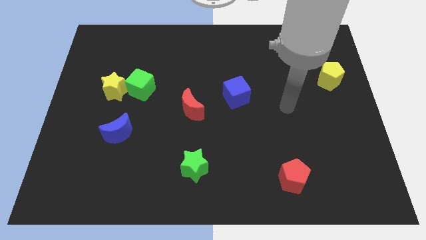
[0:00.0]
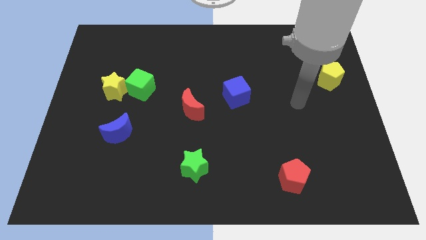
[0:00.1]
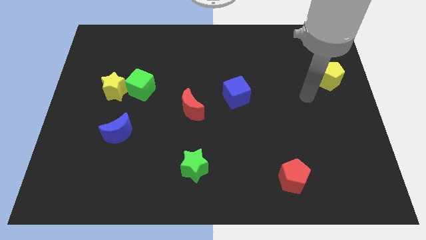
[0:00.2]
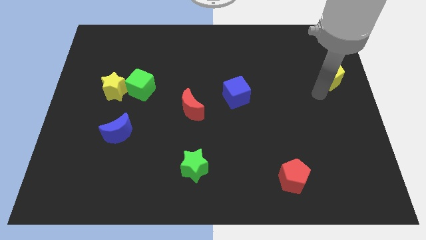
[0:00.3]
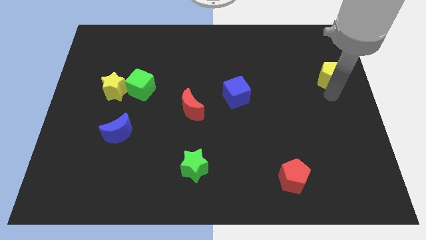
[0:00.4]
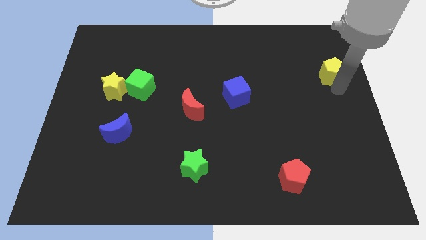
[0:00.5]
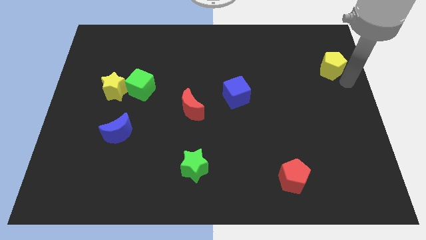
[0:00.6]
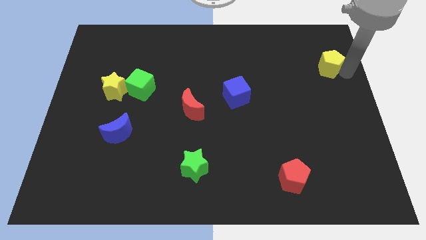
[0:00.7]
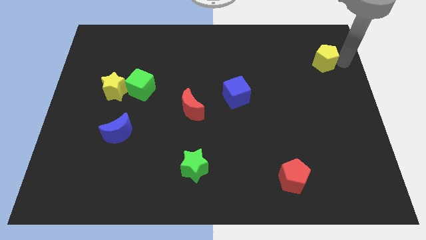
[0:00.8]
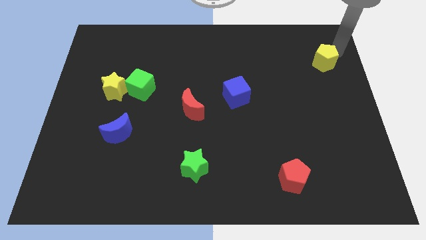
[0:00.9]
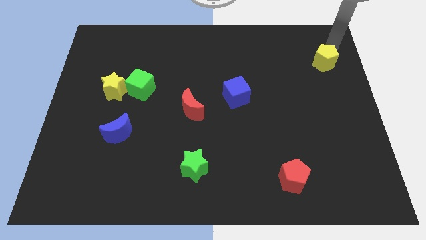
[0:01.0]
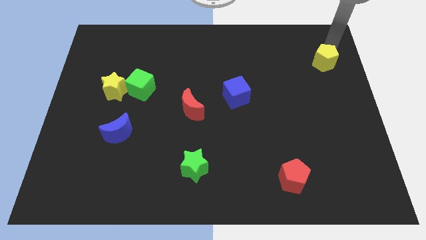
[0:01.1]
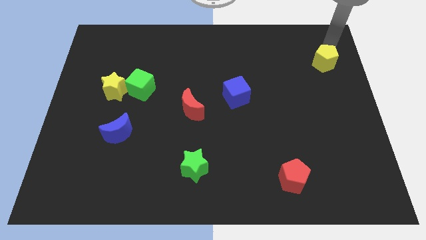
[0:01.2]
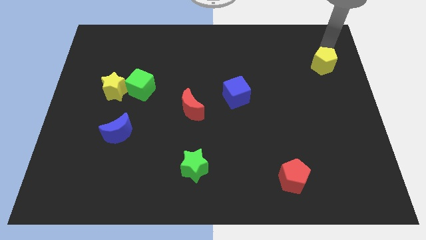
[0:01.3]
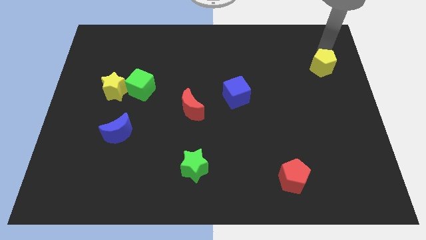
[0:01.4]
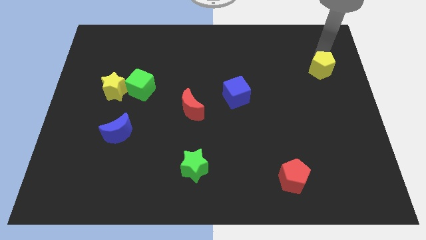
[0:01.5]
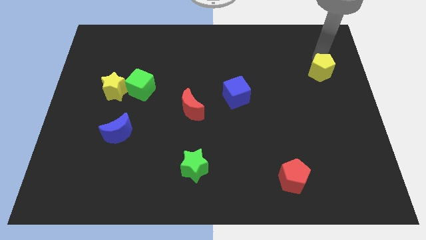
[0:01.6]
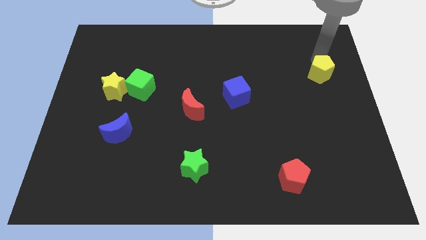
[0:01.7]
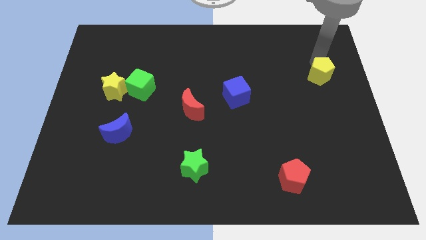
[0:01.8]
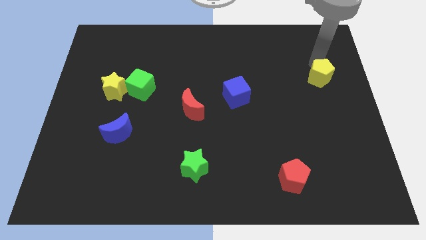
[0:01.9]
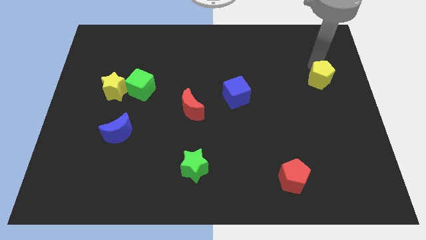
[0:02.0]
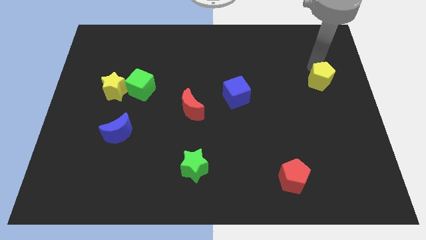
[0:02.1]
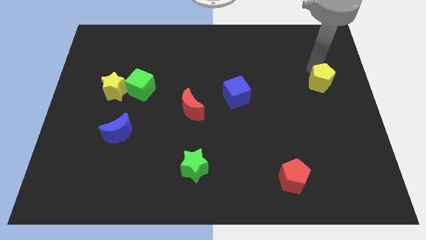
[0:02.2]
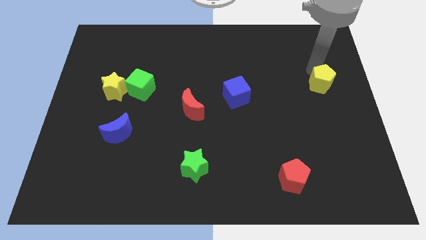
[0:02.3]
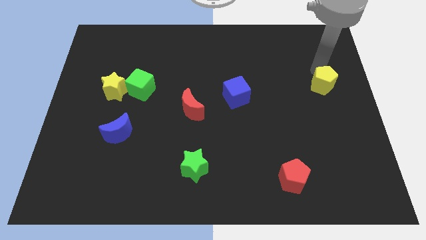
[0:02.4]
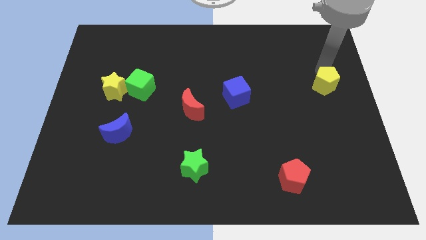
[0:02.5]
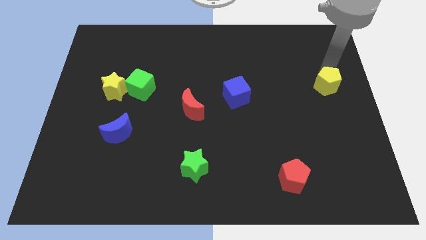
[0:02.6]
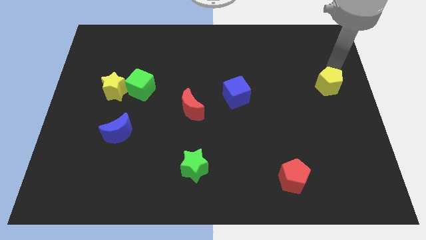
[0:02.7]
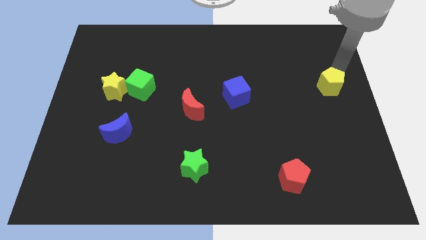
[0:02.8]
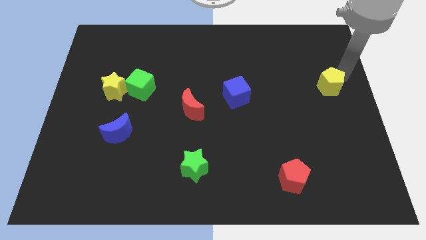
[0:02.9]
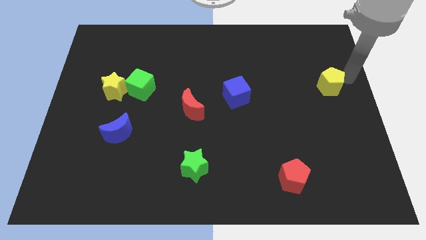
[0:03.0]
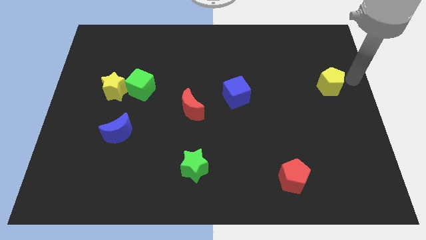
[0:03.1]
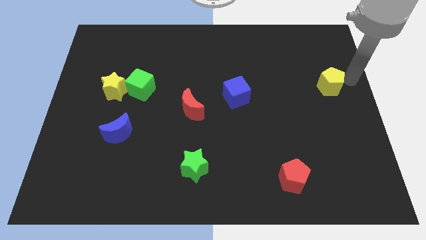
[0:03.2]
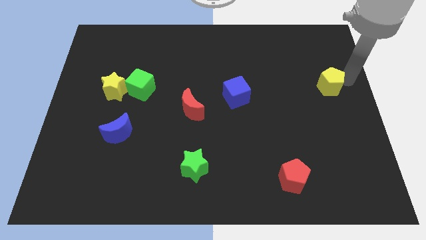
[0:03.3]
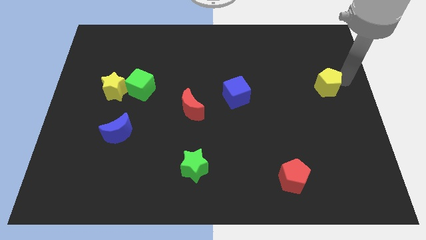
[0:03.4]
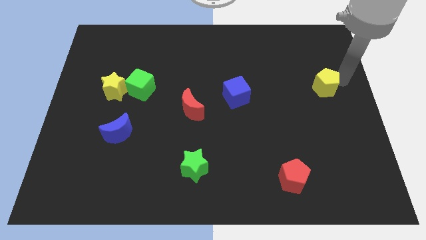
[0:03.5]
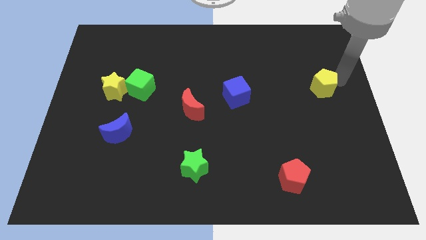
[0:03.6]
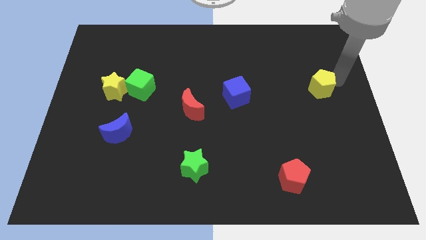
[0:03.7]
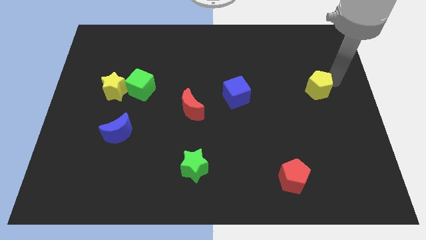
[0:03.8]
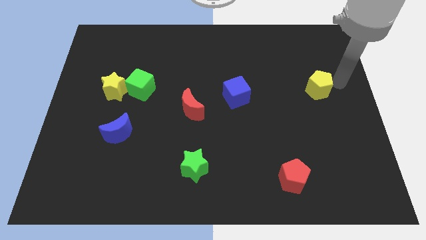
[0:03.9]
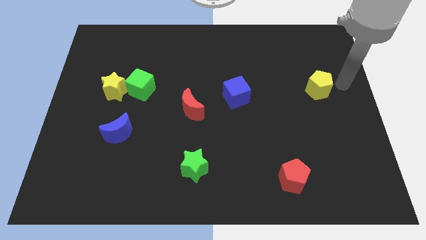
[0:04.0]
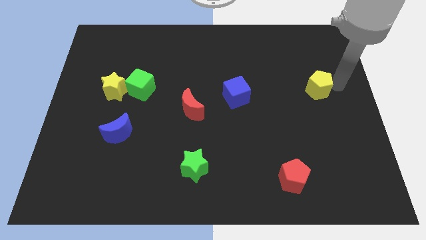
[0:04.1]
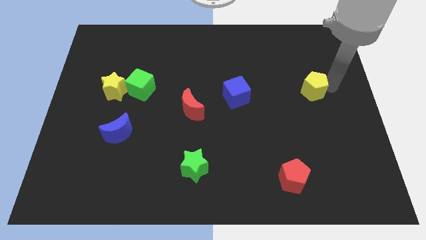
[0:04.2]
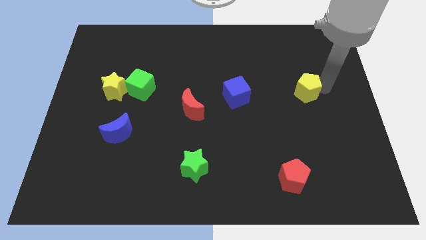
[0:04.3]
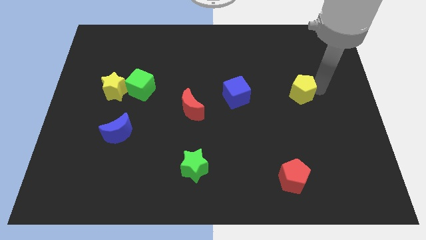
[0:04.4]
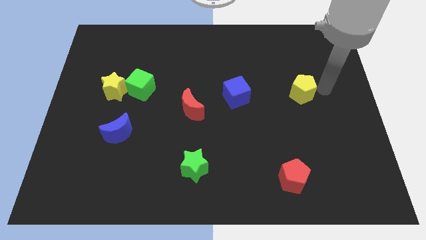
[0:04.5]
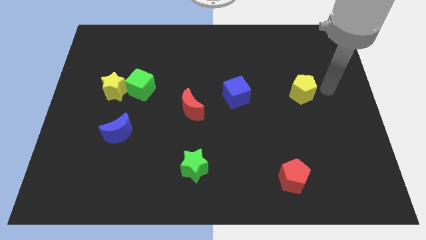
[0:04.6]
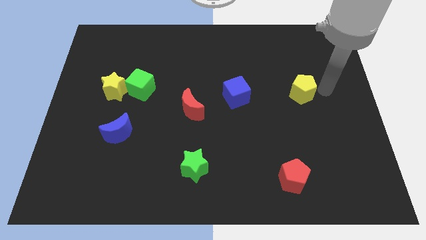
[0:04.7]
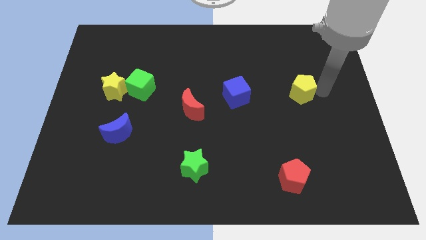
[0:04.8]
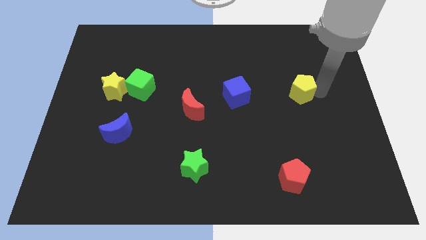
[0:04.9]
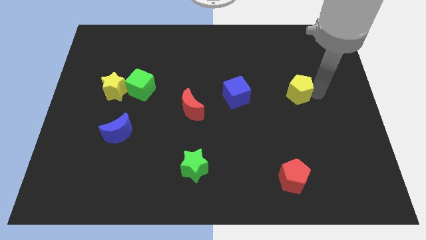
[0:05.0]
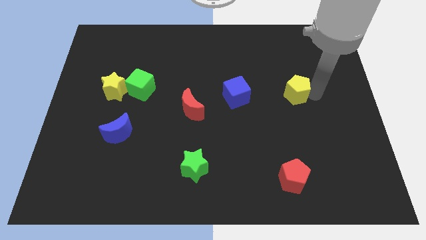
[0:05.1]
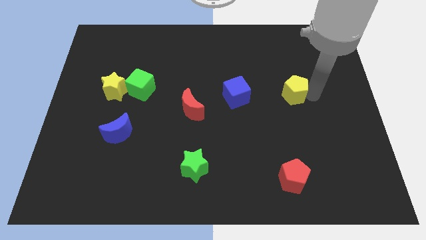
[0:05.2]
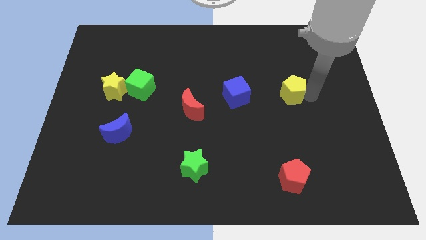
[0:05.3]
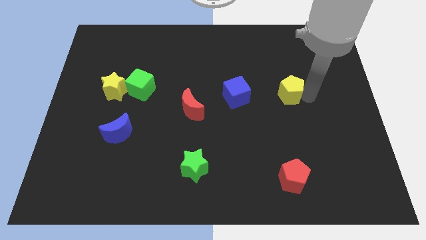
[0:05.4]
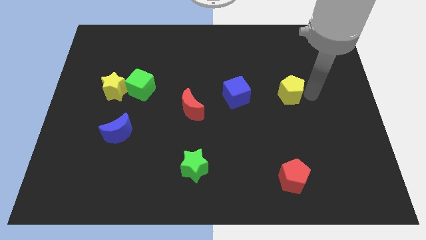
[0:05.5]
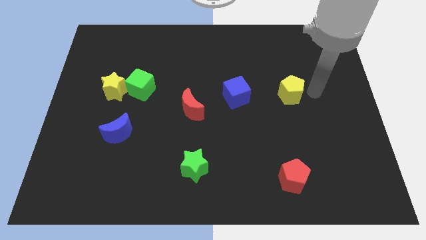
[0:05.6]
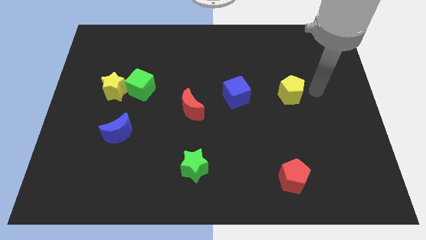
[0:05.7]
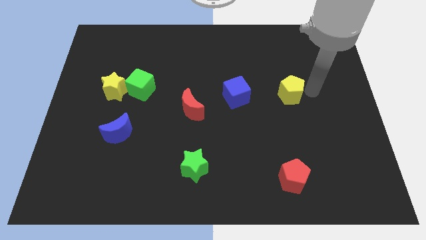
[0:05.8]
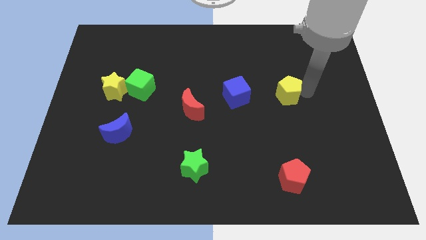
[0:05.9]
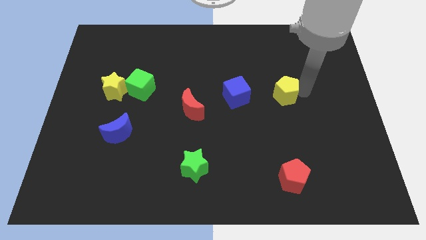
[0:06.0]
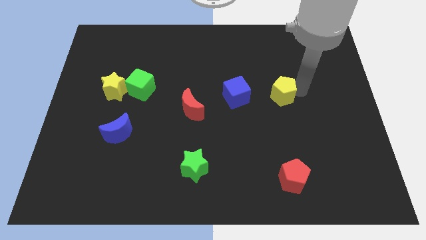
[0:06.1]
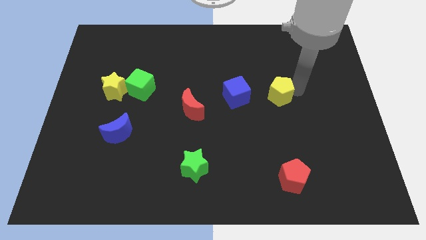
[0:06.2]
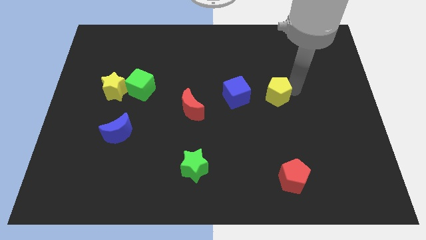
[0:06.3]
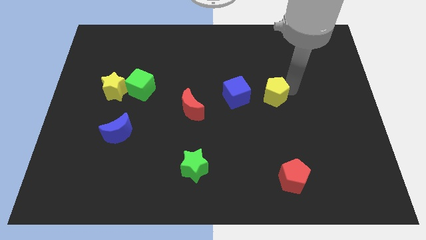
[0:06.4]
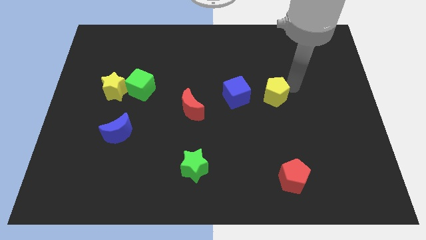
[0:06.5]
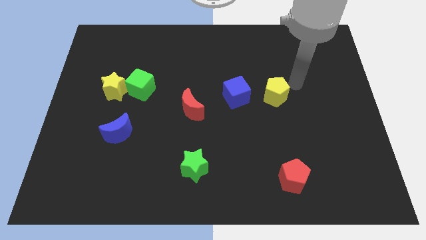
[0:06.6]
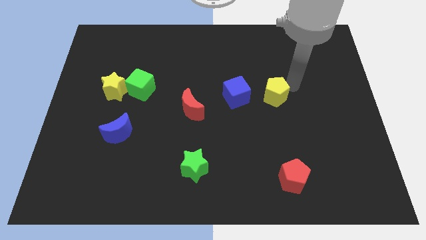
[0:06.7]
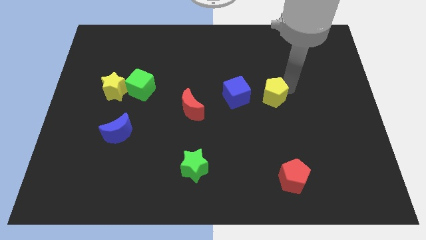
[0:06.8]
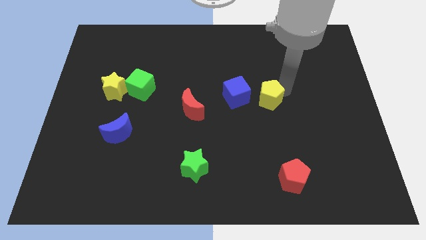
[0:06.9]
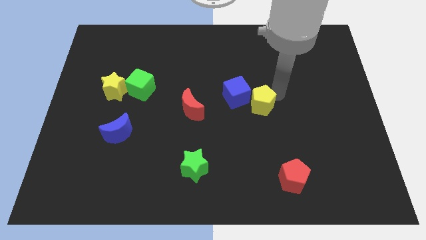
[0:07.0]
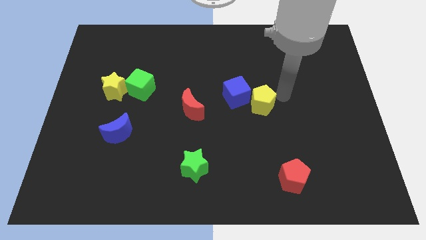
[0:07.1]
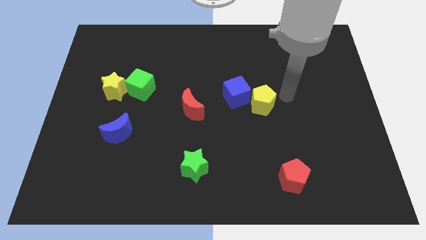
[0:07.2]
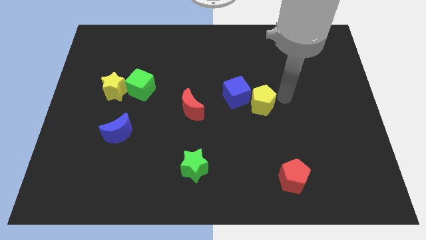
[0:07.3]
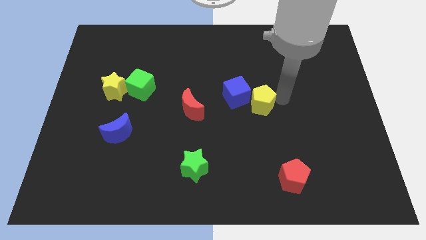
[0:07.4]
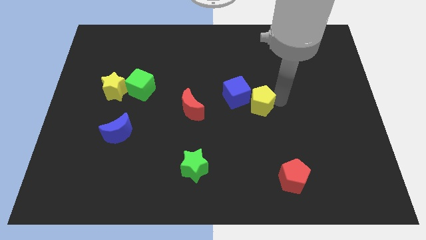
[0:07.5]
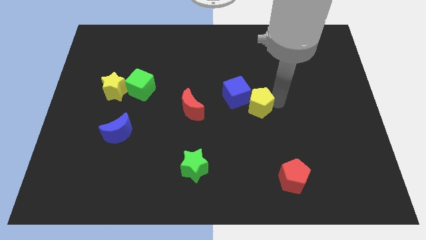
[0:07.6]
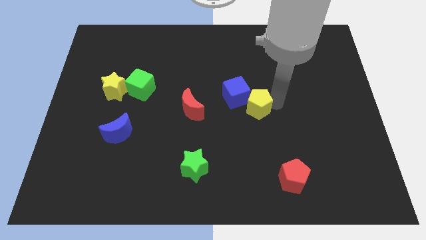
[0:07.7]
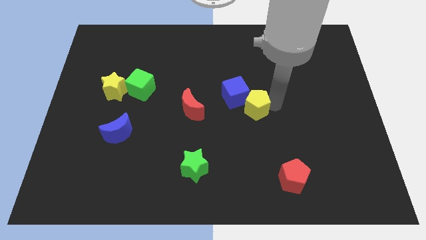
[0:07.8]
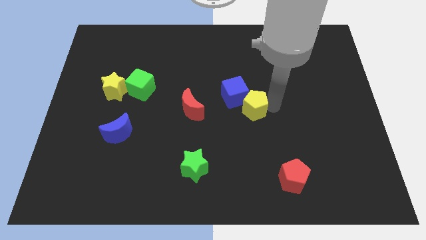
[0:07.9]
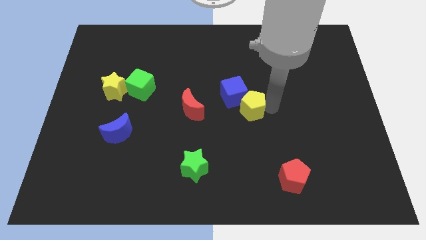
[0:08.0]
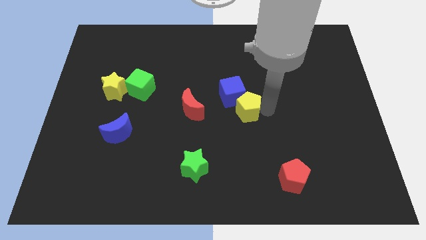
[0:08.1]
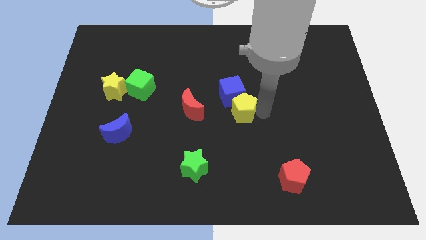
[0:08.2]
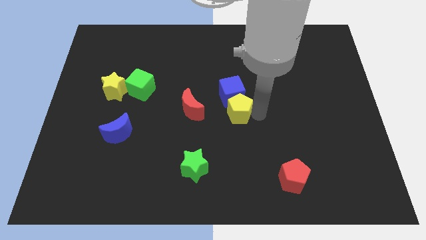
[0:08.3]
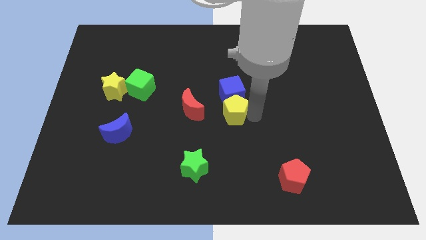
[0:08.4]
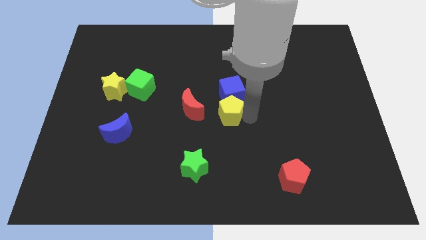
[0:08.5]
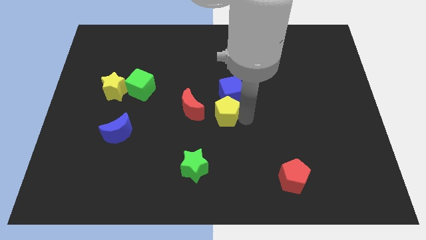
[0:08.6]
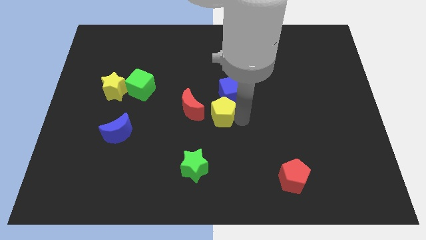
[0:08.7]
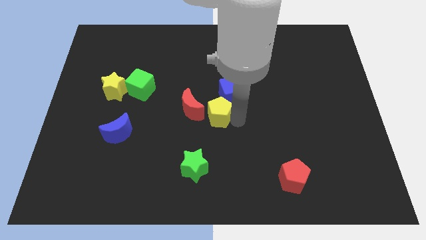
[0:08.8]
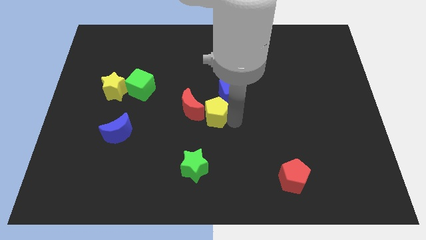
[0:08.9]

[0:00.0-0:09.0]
move the yellow pentagon close to the red moon
